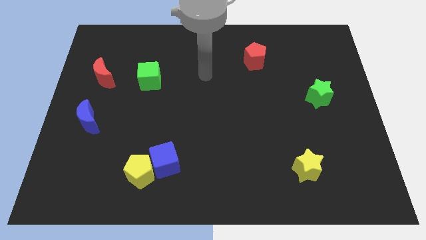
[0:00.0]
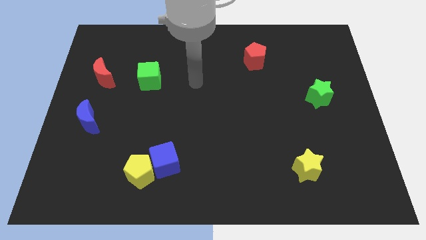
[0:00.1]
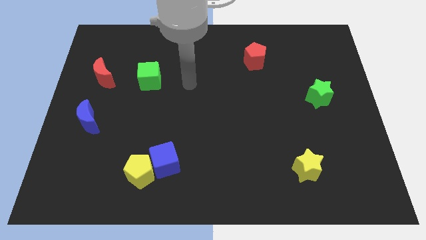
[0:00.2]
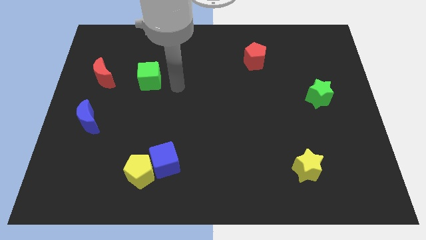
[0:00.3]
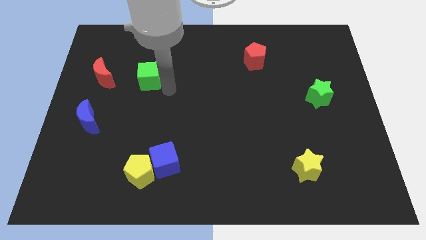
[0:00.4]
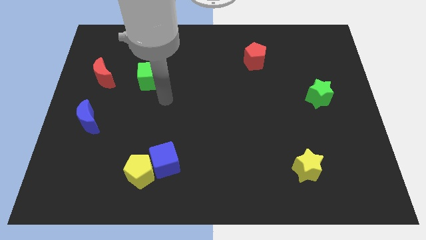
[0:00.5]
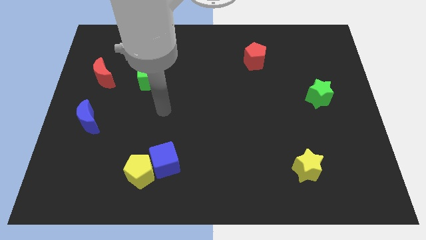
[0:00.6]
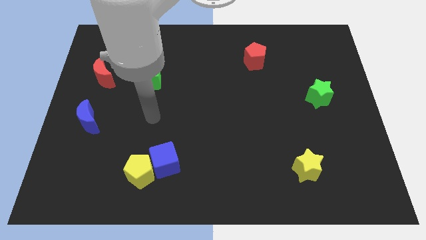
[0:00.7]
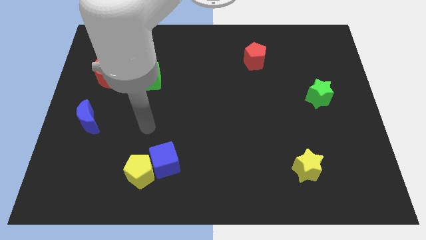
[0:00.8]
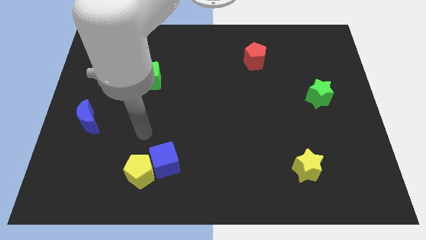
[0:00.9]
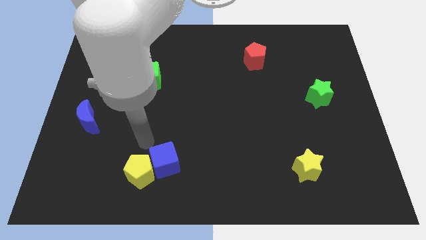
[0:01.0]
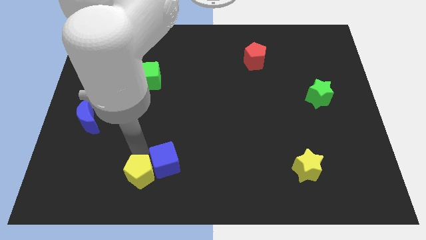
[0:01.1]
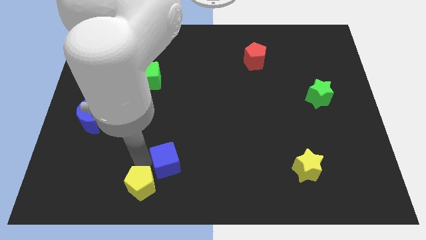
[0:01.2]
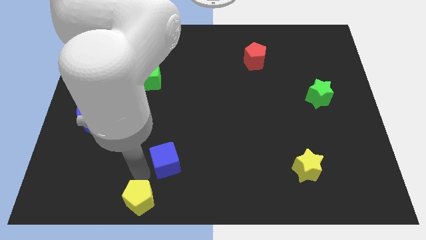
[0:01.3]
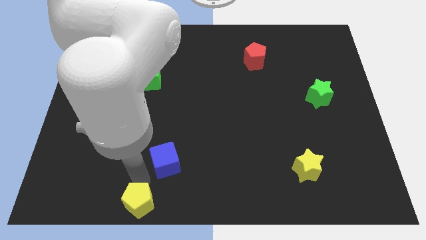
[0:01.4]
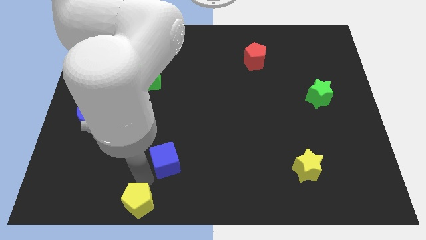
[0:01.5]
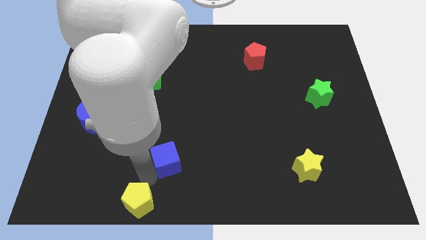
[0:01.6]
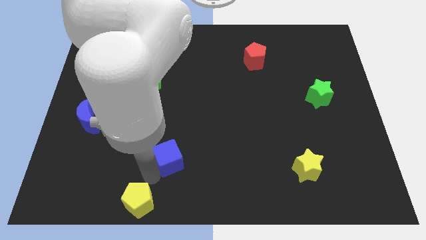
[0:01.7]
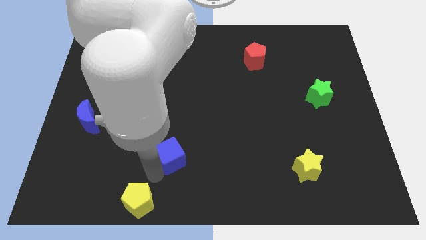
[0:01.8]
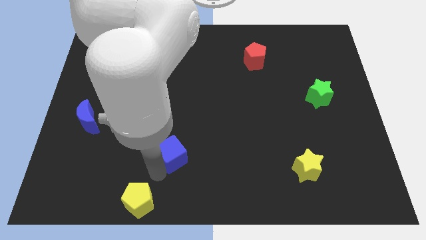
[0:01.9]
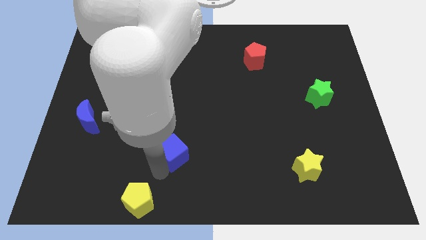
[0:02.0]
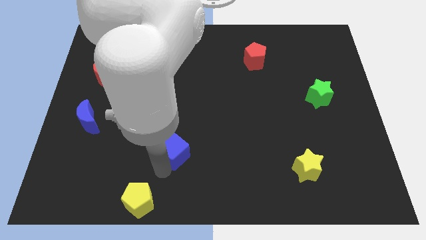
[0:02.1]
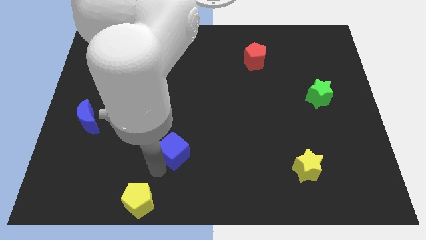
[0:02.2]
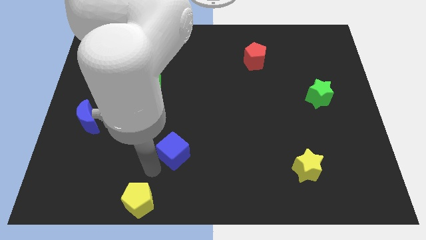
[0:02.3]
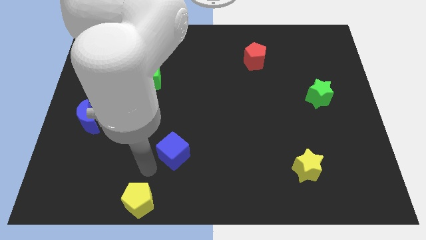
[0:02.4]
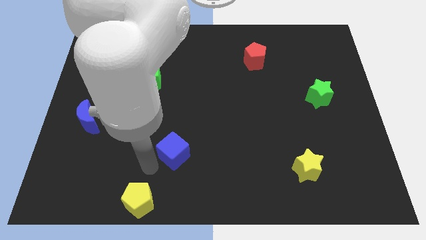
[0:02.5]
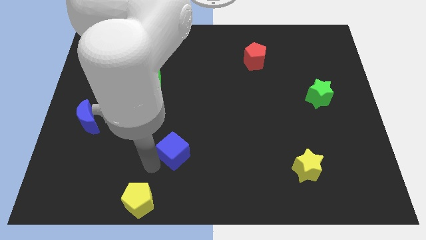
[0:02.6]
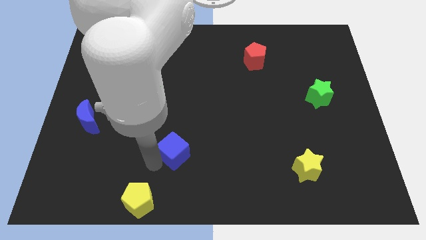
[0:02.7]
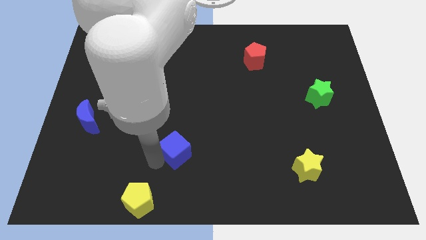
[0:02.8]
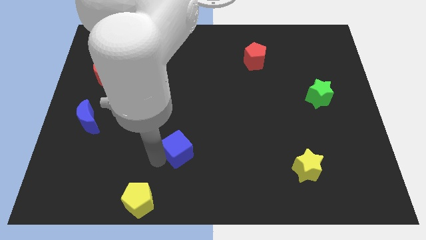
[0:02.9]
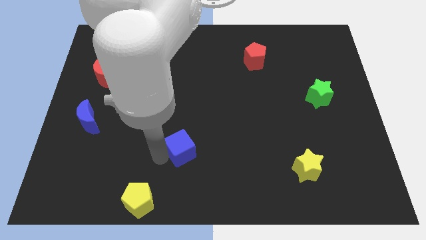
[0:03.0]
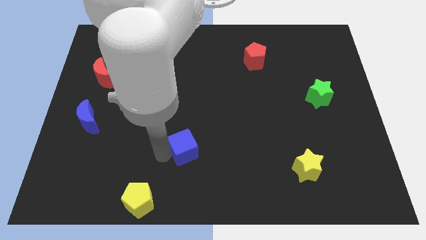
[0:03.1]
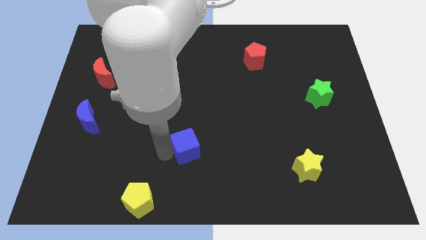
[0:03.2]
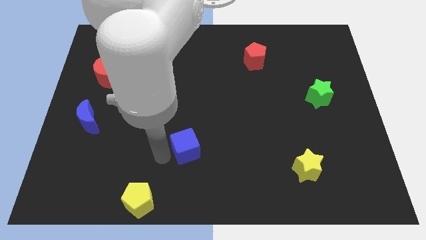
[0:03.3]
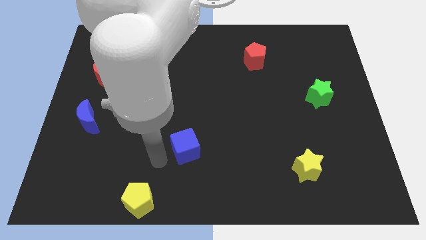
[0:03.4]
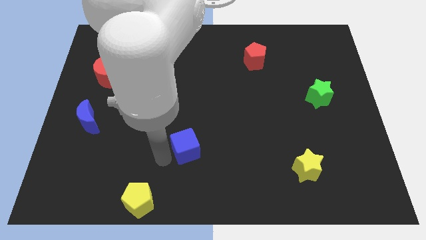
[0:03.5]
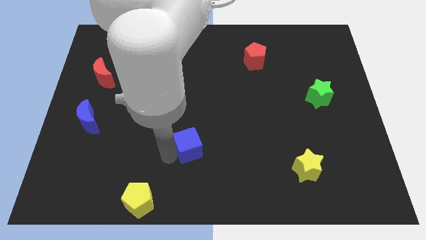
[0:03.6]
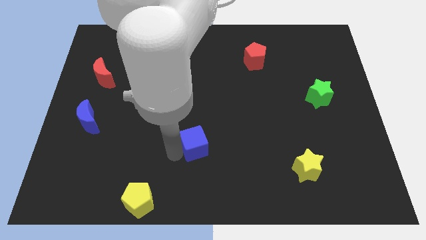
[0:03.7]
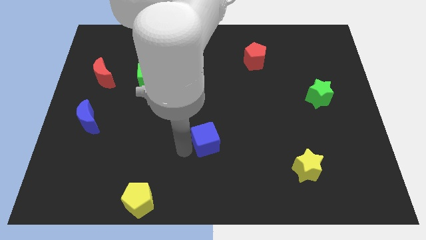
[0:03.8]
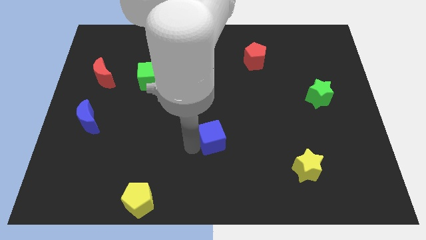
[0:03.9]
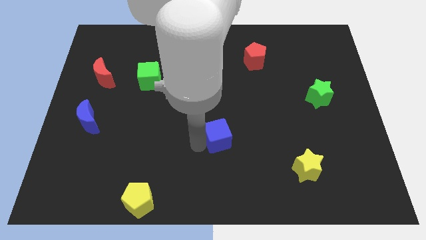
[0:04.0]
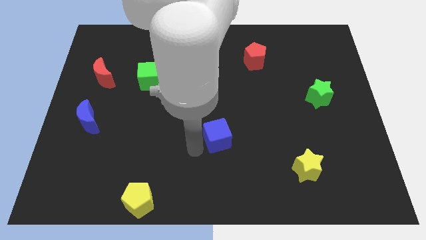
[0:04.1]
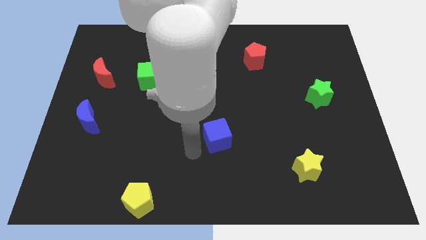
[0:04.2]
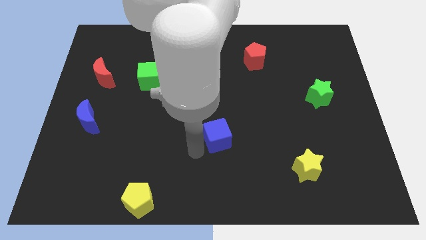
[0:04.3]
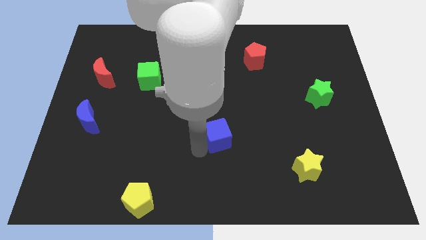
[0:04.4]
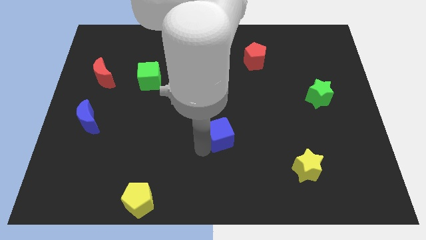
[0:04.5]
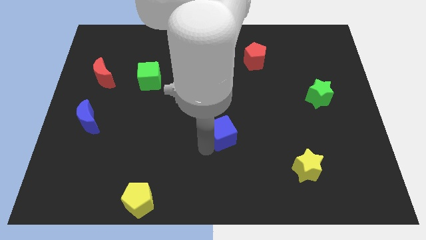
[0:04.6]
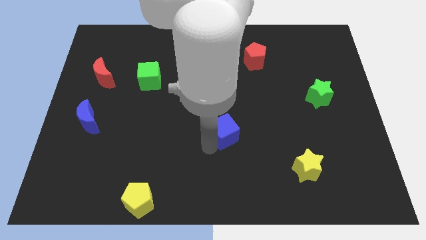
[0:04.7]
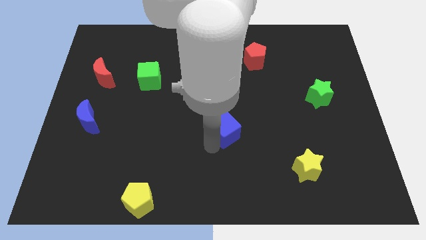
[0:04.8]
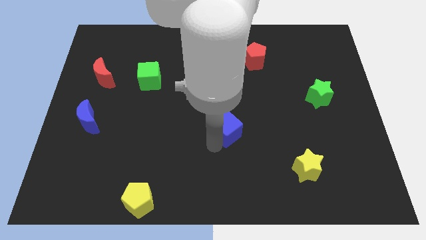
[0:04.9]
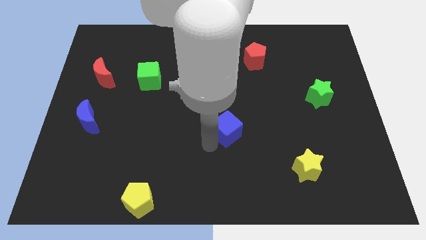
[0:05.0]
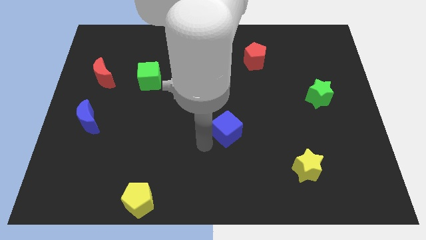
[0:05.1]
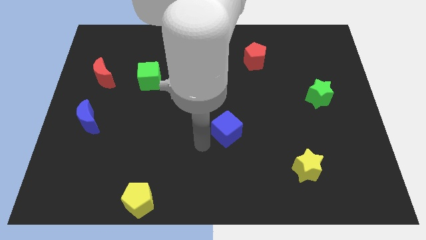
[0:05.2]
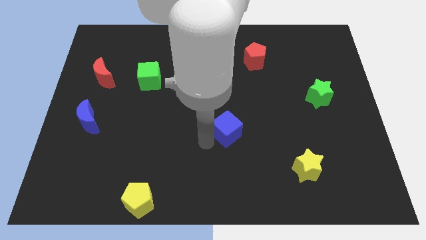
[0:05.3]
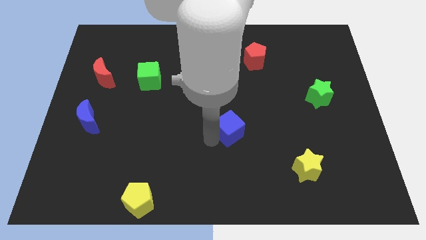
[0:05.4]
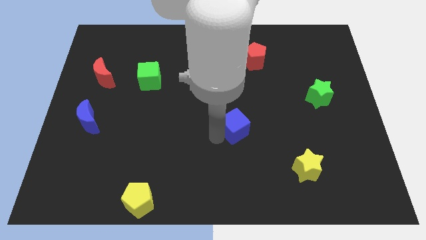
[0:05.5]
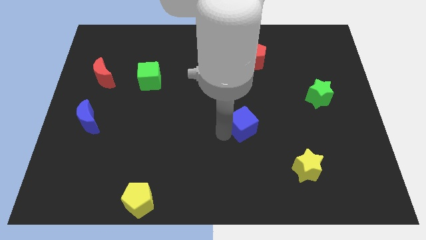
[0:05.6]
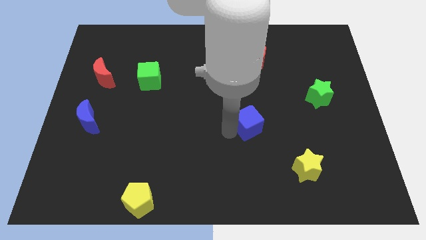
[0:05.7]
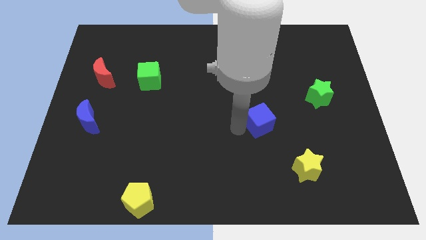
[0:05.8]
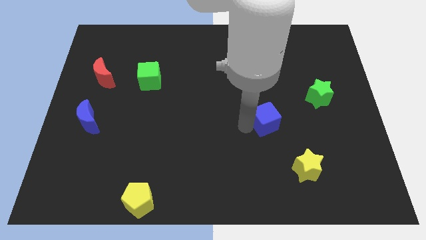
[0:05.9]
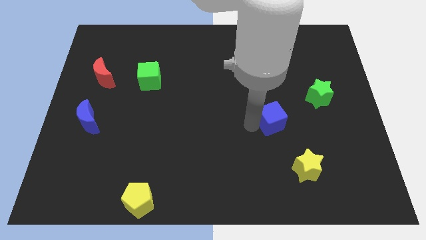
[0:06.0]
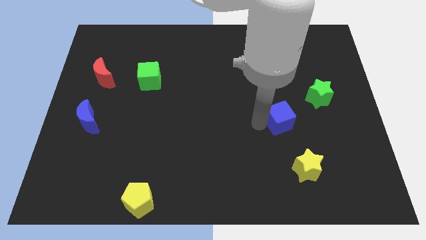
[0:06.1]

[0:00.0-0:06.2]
put the blue cube to the bottom left of the green star
